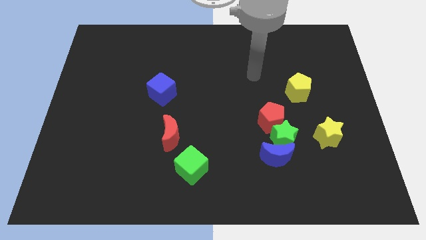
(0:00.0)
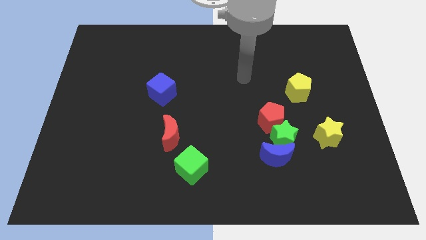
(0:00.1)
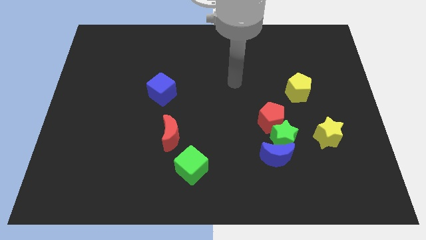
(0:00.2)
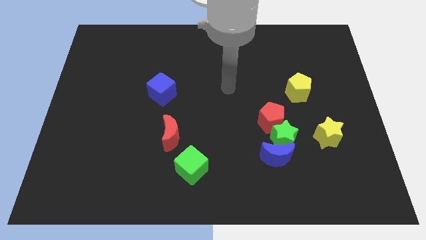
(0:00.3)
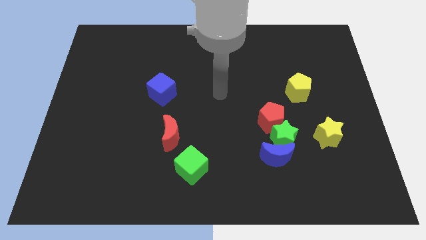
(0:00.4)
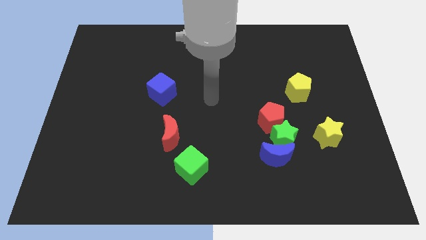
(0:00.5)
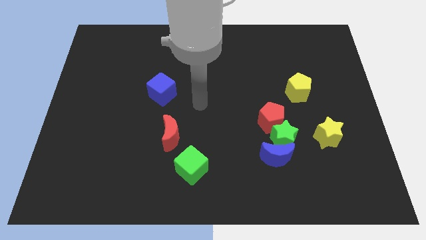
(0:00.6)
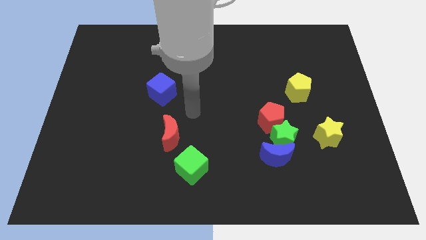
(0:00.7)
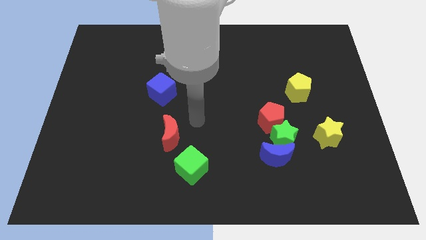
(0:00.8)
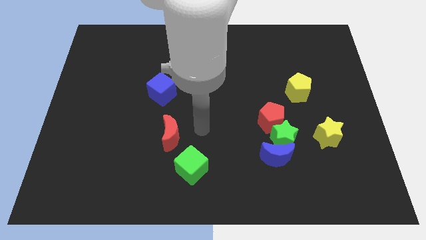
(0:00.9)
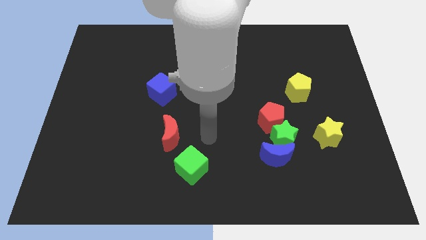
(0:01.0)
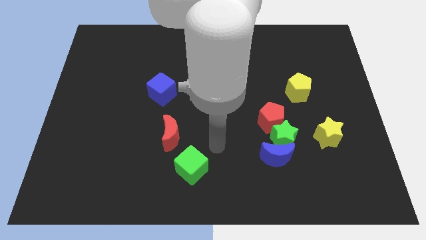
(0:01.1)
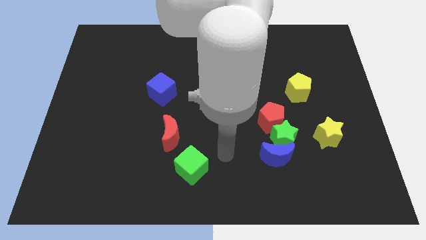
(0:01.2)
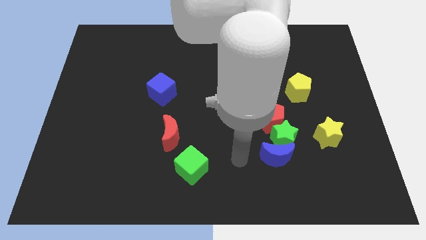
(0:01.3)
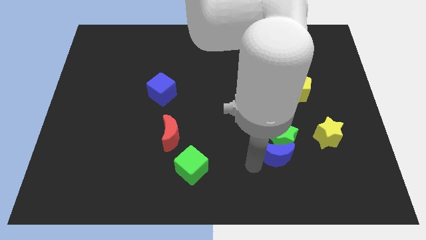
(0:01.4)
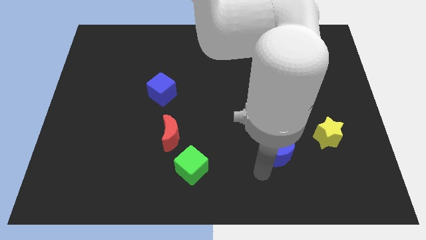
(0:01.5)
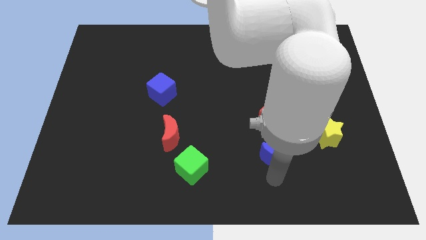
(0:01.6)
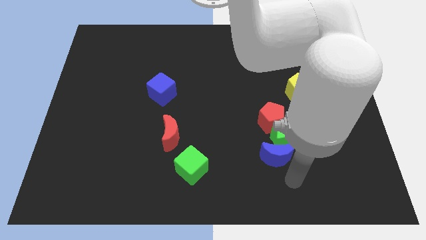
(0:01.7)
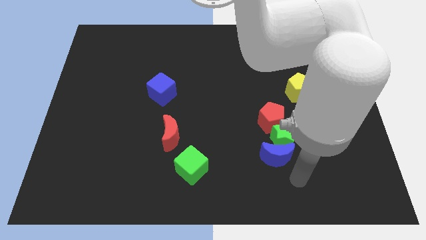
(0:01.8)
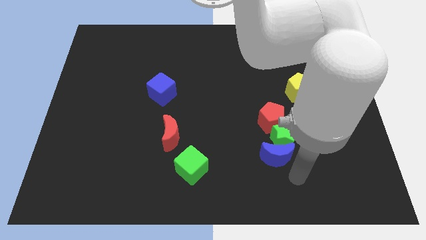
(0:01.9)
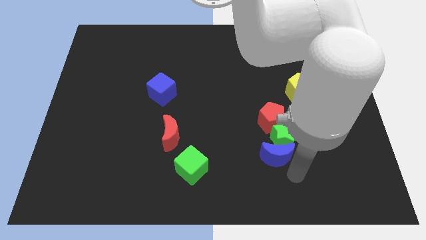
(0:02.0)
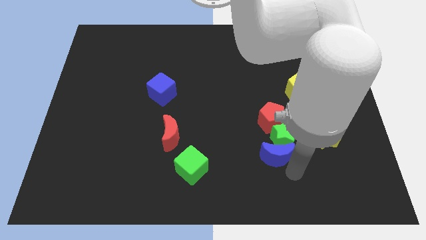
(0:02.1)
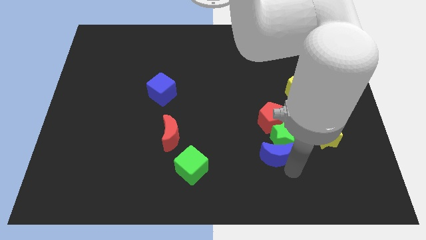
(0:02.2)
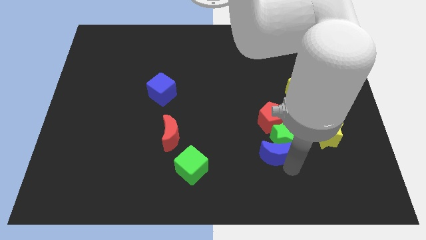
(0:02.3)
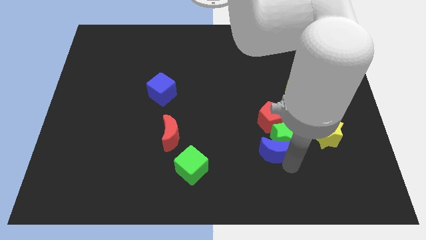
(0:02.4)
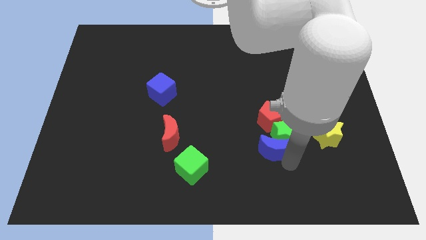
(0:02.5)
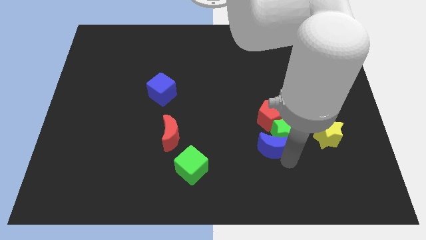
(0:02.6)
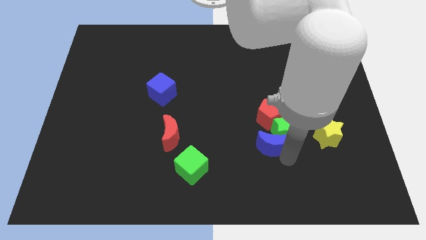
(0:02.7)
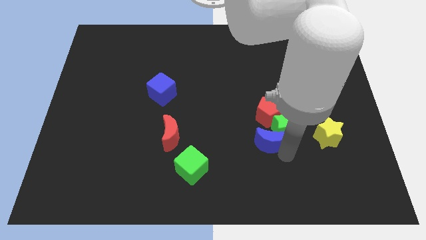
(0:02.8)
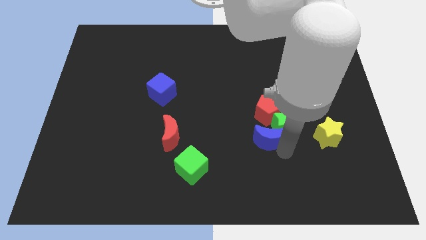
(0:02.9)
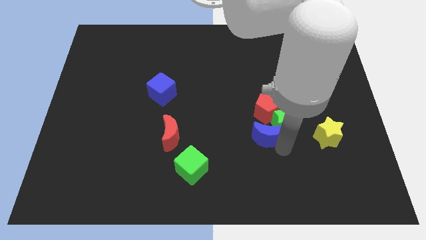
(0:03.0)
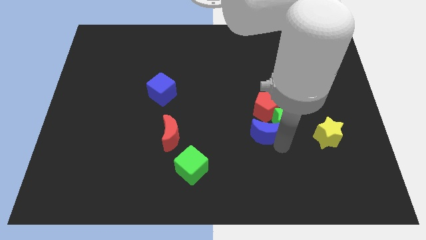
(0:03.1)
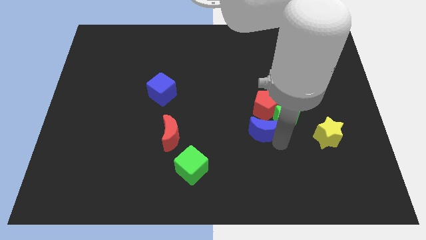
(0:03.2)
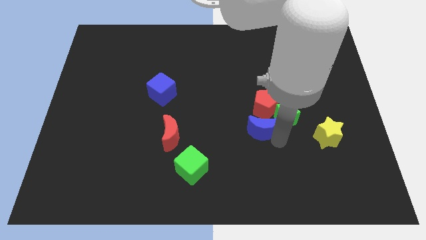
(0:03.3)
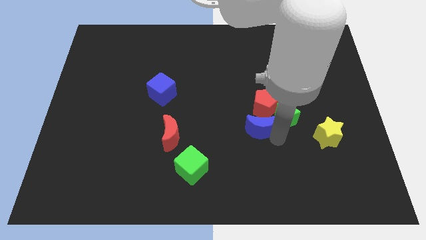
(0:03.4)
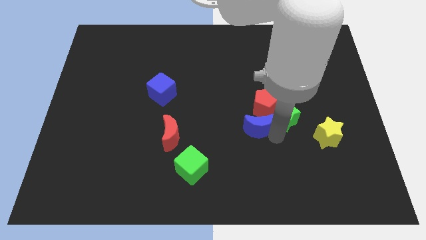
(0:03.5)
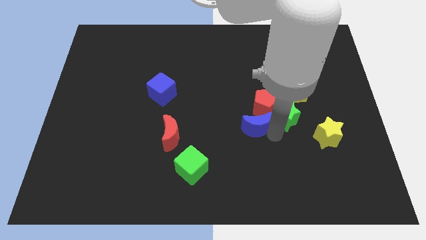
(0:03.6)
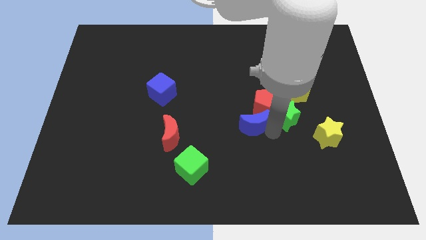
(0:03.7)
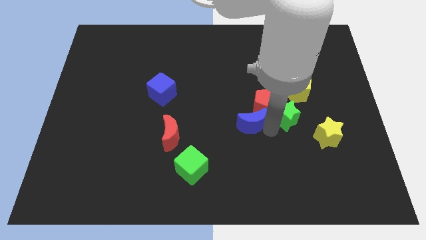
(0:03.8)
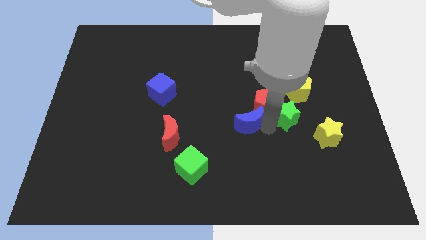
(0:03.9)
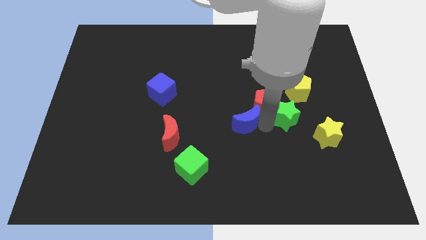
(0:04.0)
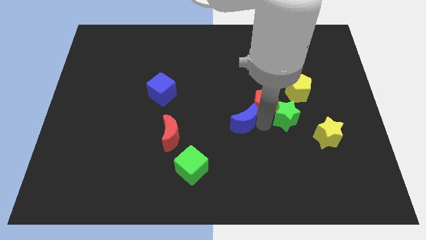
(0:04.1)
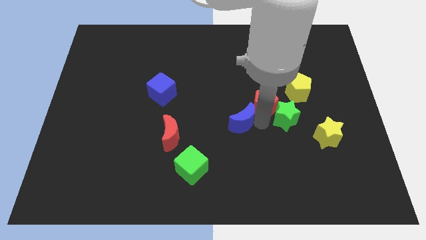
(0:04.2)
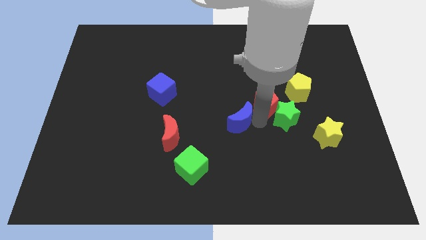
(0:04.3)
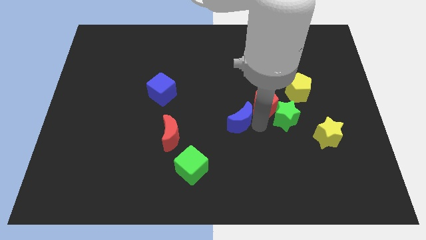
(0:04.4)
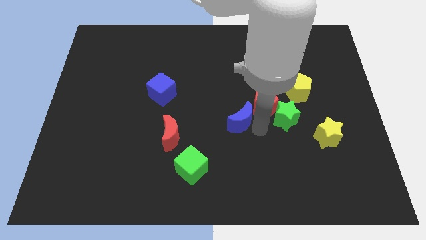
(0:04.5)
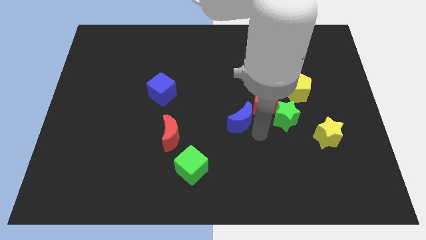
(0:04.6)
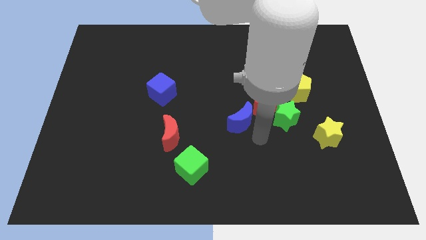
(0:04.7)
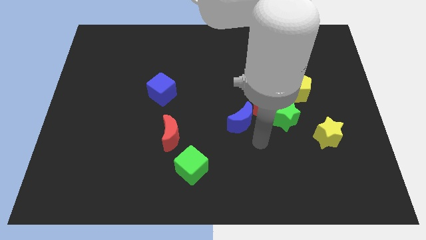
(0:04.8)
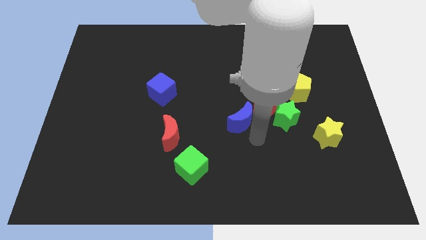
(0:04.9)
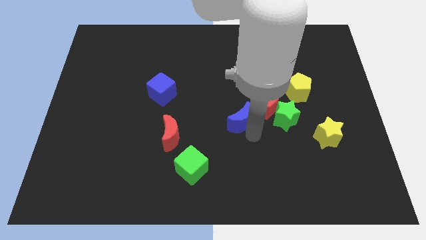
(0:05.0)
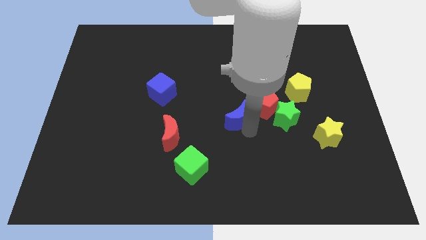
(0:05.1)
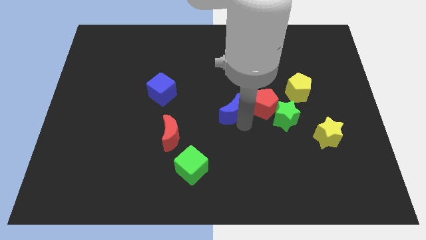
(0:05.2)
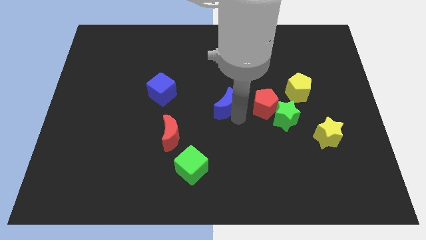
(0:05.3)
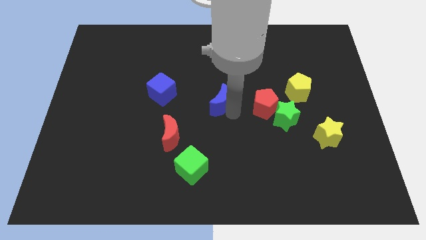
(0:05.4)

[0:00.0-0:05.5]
slide the blue moon to the right side of the blue cube

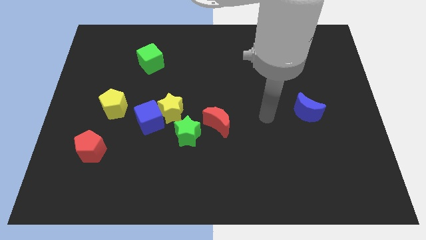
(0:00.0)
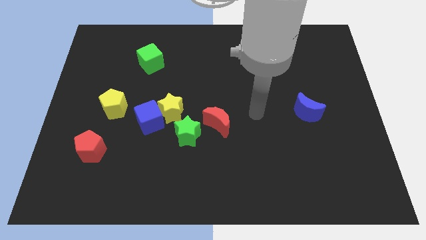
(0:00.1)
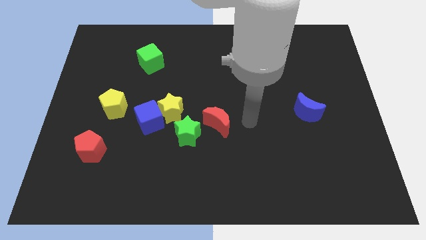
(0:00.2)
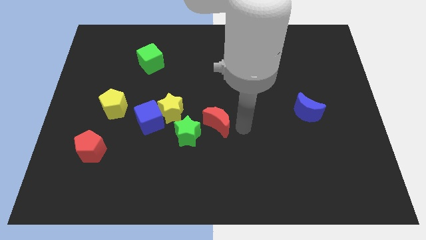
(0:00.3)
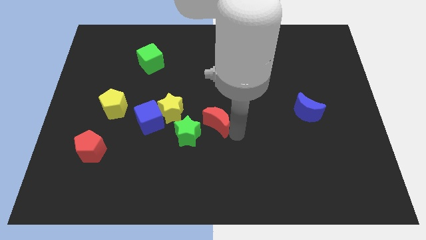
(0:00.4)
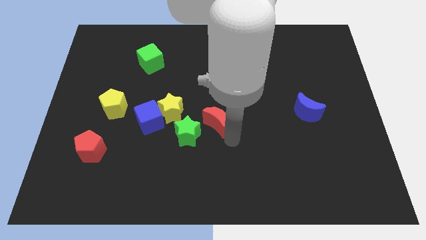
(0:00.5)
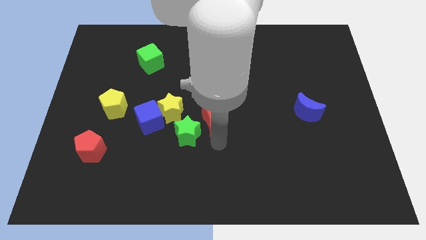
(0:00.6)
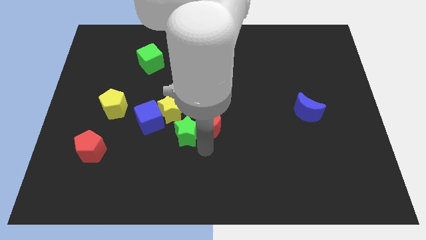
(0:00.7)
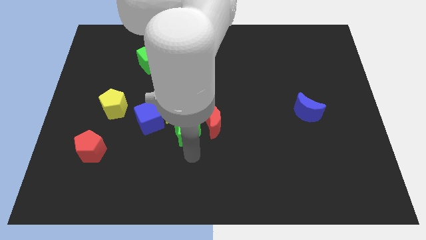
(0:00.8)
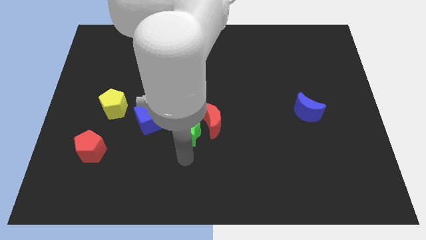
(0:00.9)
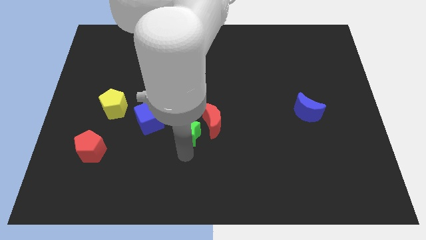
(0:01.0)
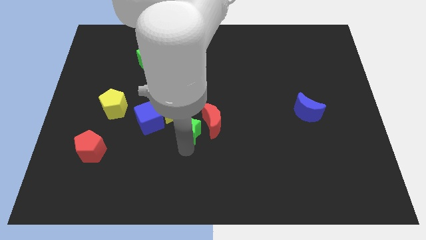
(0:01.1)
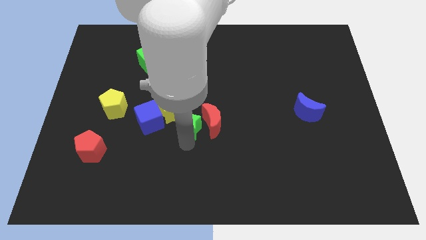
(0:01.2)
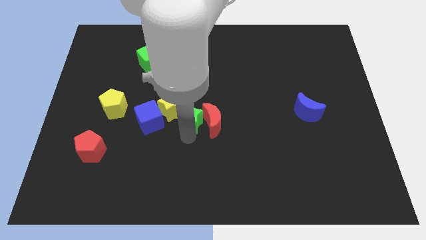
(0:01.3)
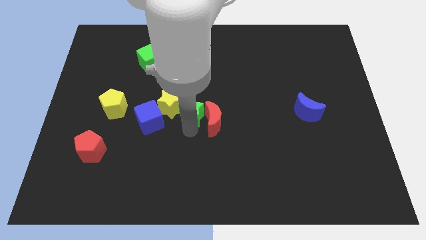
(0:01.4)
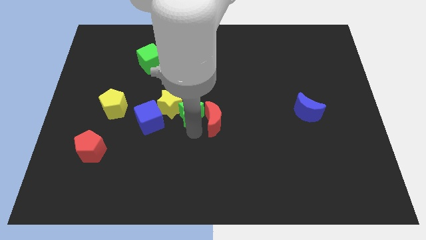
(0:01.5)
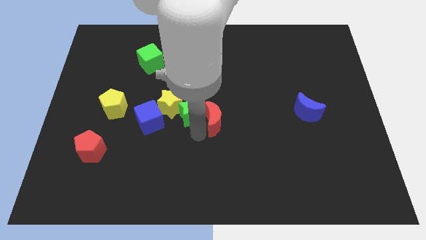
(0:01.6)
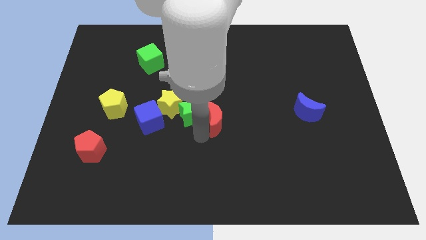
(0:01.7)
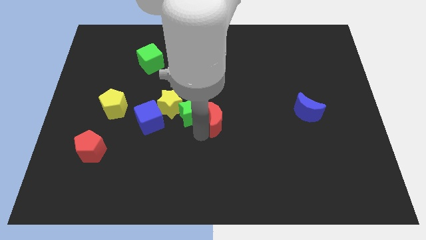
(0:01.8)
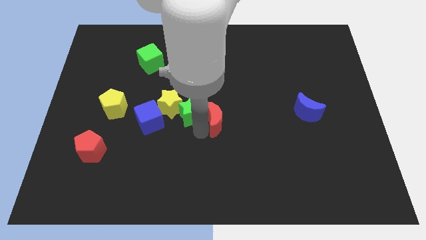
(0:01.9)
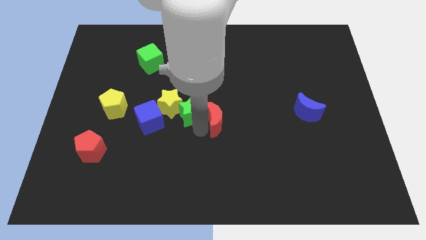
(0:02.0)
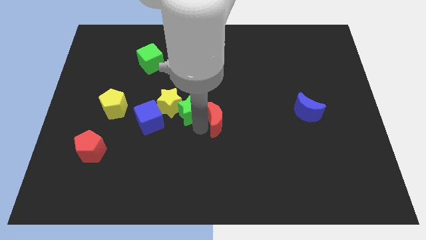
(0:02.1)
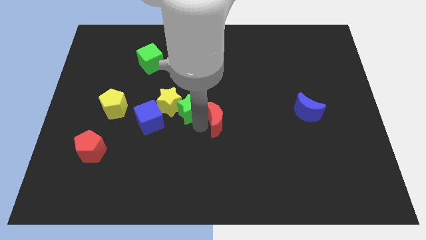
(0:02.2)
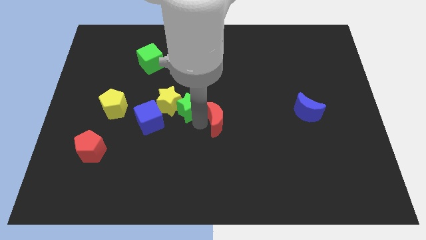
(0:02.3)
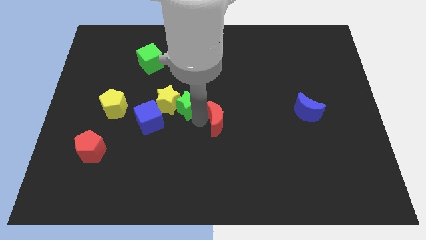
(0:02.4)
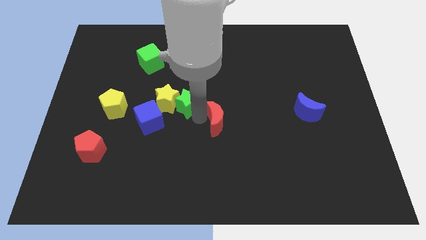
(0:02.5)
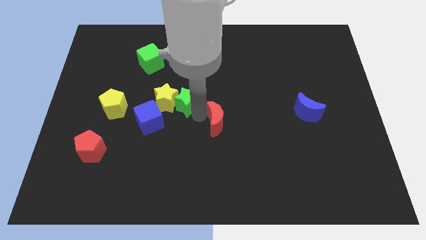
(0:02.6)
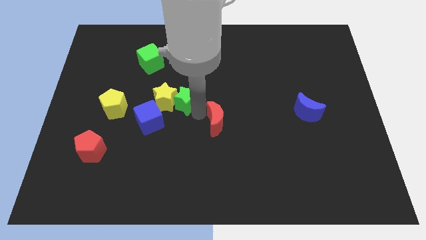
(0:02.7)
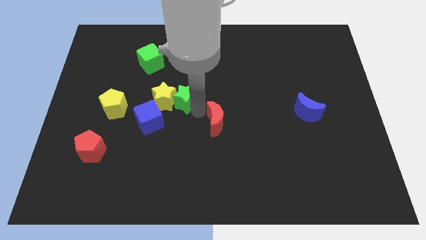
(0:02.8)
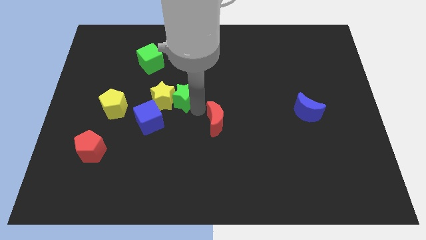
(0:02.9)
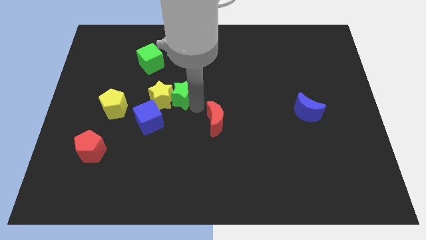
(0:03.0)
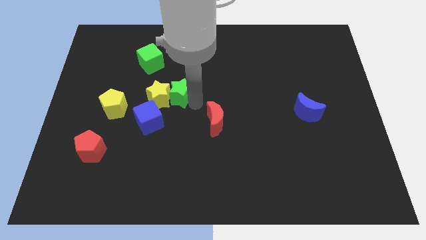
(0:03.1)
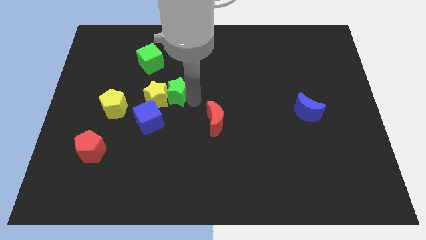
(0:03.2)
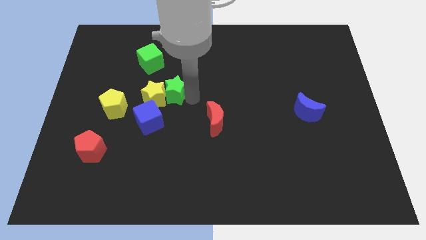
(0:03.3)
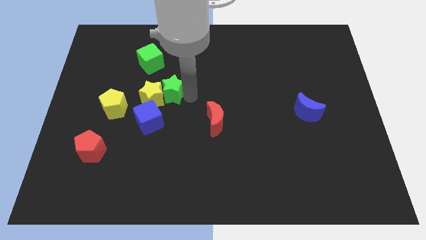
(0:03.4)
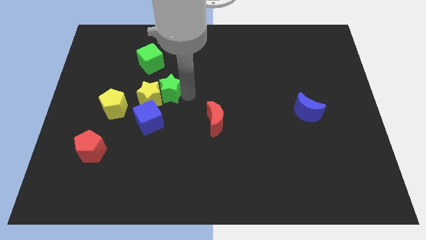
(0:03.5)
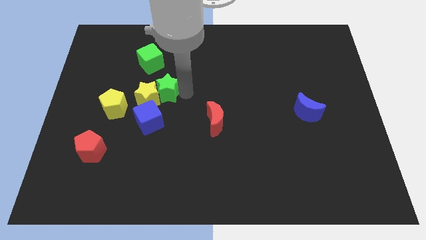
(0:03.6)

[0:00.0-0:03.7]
push the green star to the bottom of the green cube
